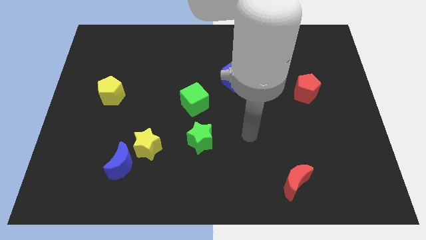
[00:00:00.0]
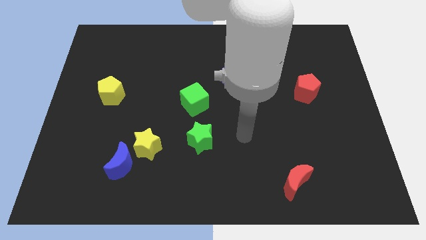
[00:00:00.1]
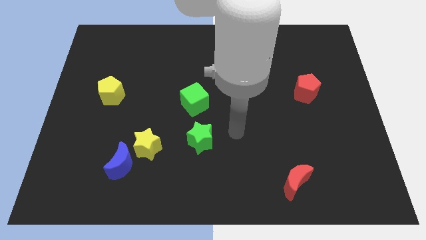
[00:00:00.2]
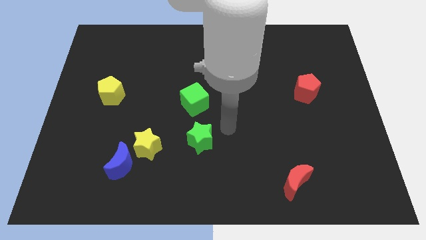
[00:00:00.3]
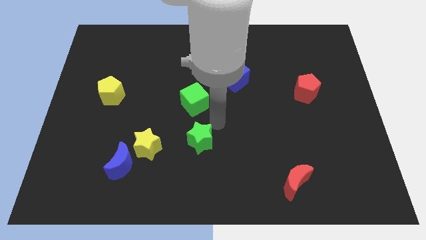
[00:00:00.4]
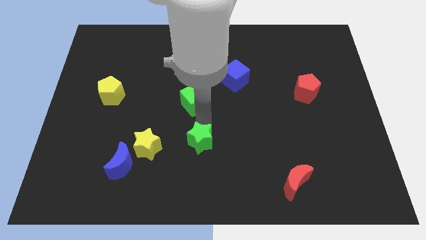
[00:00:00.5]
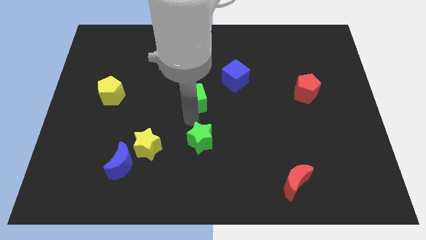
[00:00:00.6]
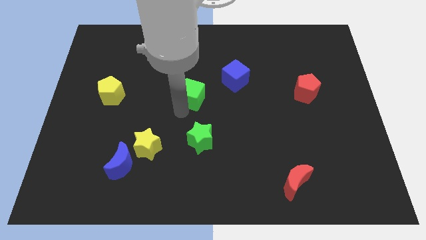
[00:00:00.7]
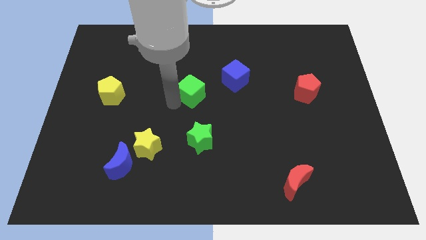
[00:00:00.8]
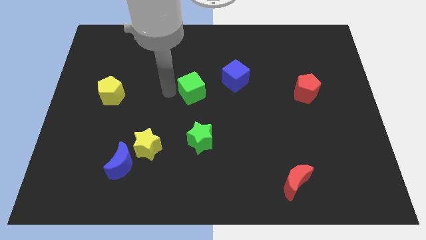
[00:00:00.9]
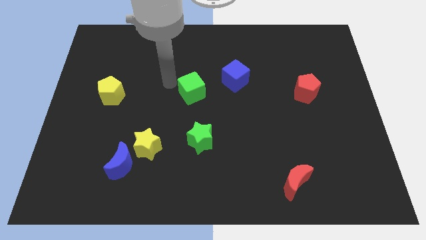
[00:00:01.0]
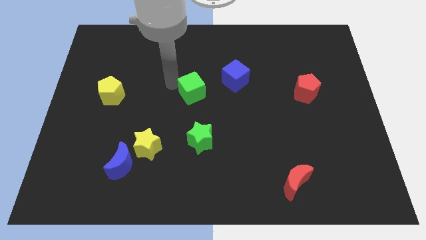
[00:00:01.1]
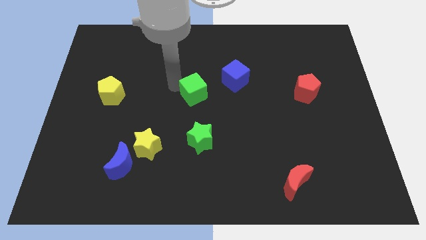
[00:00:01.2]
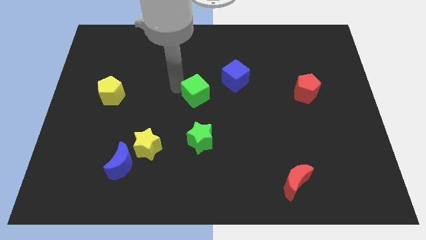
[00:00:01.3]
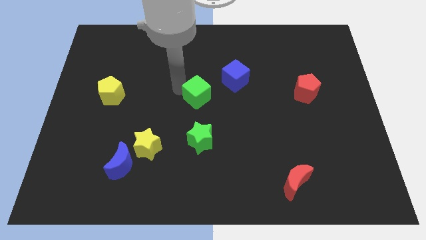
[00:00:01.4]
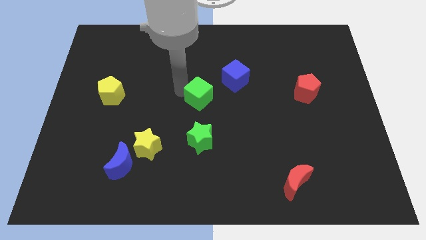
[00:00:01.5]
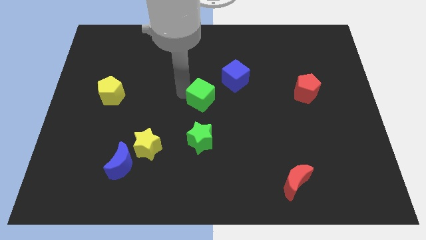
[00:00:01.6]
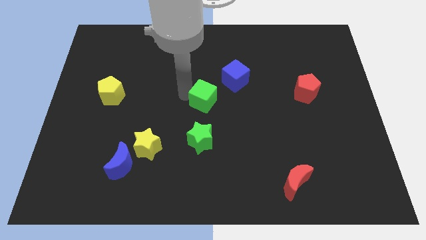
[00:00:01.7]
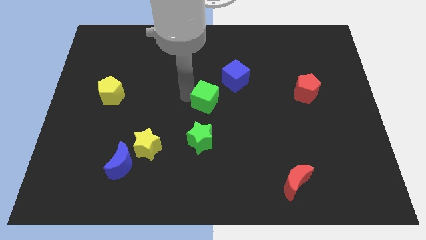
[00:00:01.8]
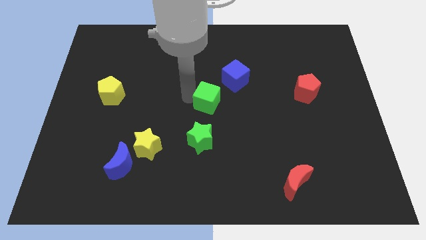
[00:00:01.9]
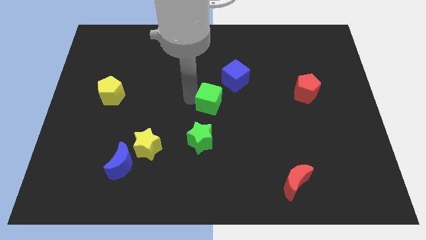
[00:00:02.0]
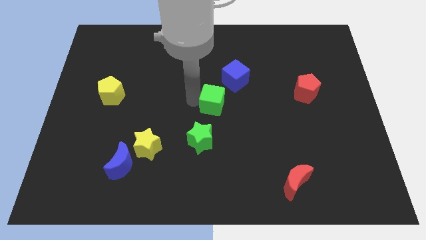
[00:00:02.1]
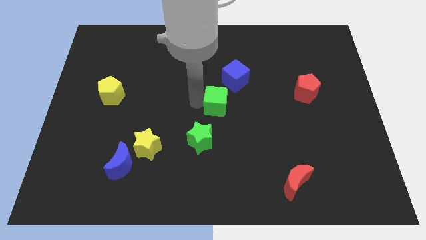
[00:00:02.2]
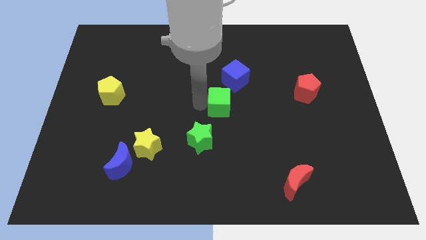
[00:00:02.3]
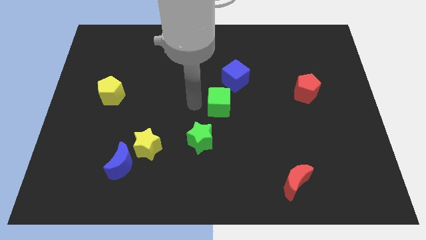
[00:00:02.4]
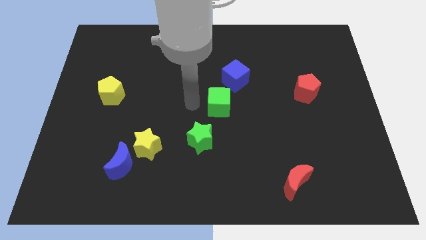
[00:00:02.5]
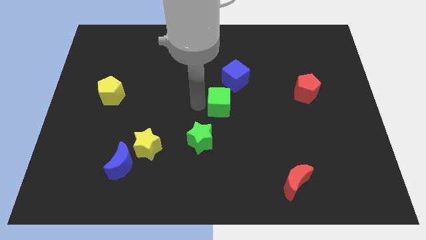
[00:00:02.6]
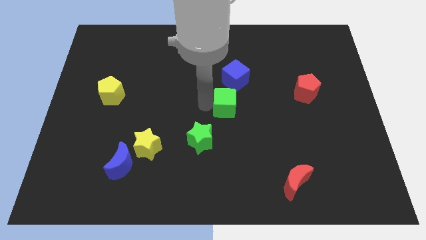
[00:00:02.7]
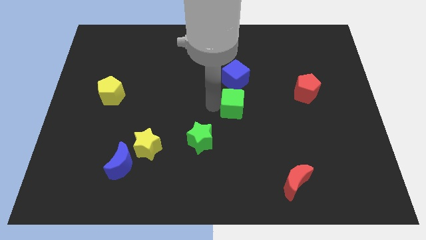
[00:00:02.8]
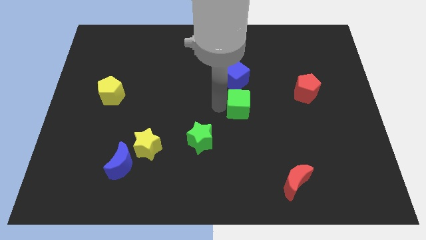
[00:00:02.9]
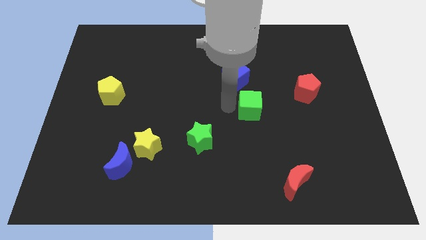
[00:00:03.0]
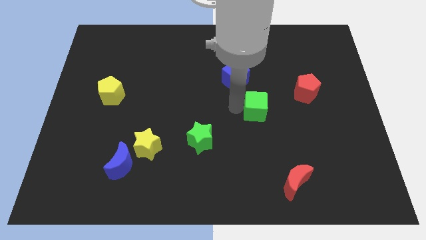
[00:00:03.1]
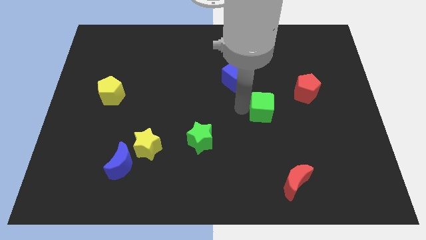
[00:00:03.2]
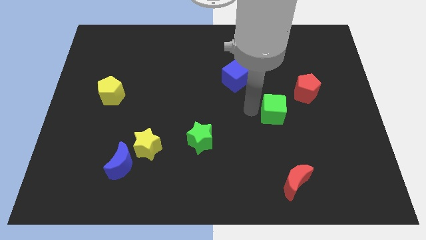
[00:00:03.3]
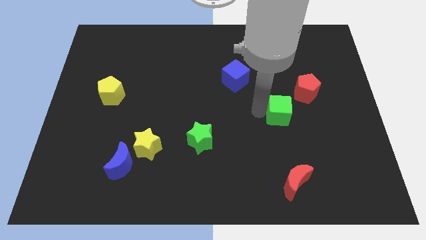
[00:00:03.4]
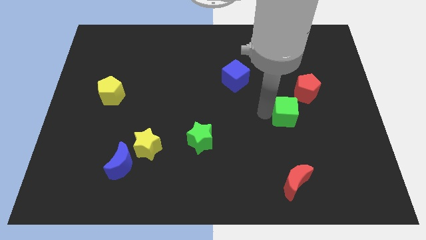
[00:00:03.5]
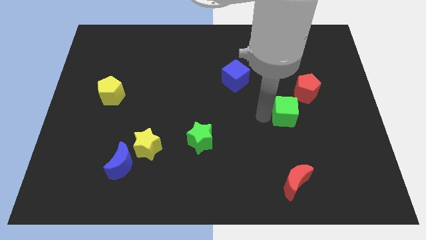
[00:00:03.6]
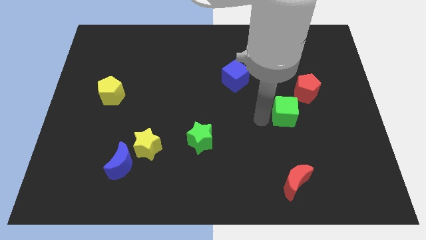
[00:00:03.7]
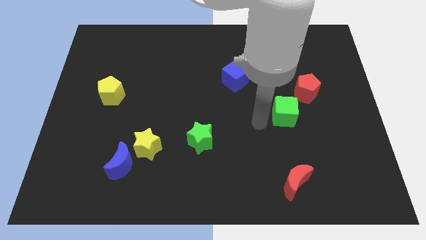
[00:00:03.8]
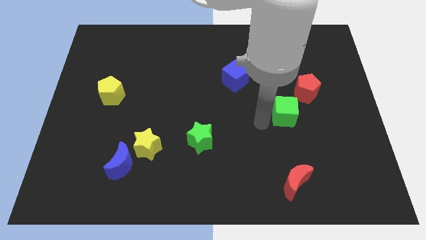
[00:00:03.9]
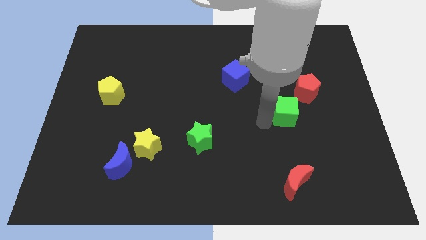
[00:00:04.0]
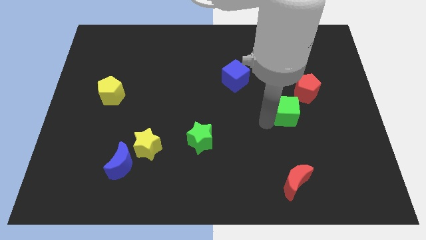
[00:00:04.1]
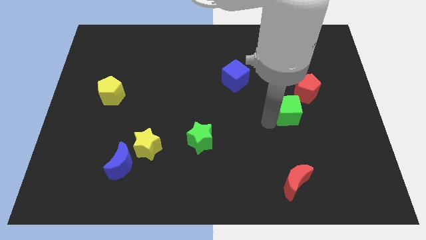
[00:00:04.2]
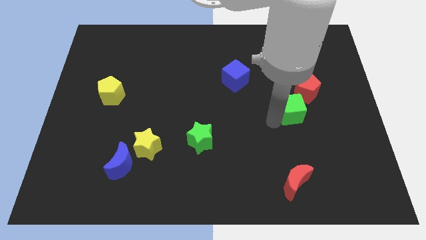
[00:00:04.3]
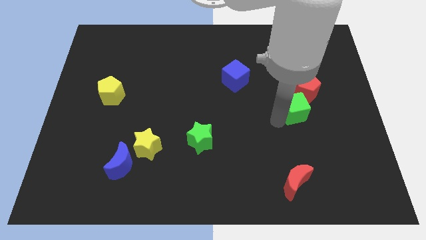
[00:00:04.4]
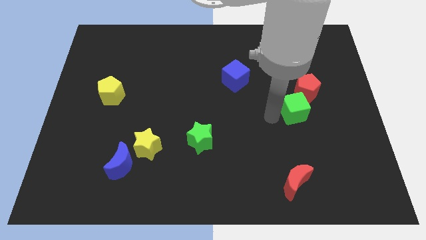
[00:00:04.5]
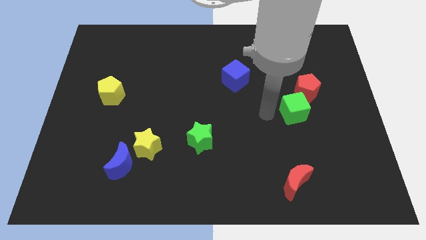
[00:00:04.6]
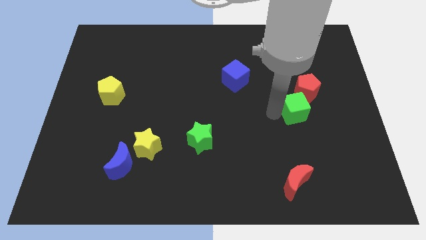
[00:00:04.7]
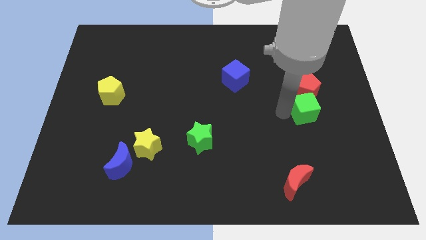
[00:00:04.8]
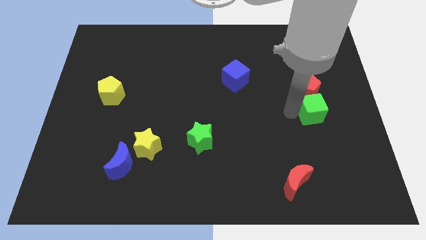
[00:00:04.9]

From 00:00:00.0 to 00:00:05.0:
move the green cube to the bottom right of the red pentagon
